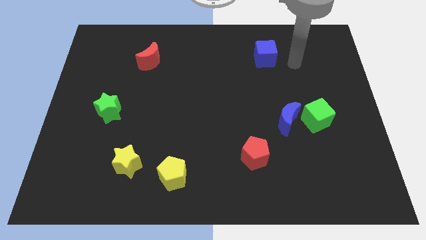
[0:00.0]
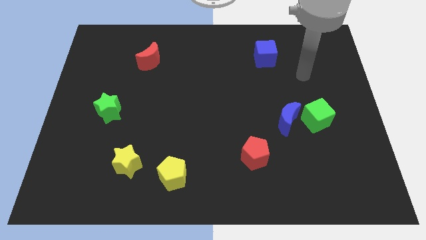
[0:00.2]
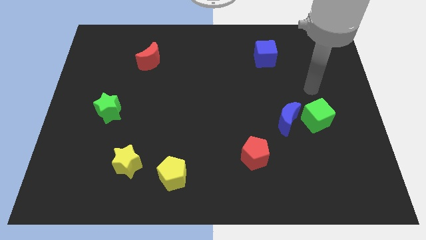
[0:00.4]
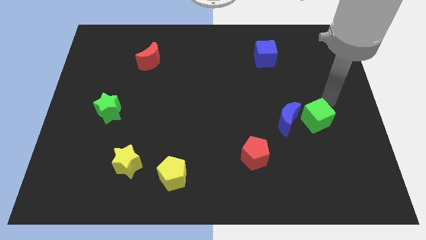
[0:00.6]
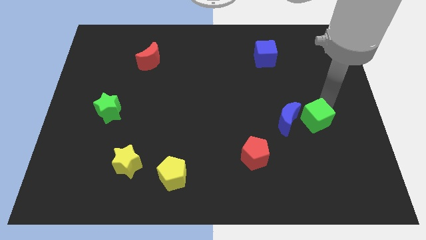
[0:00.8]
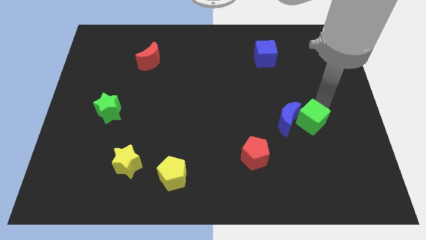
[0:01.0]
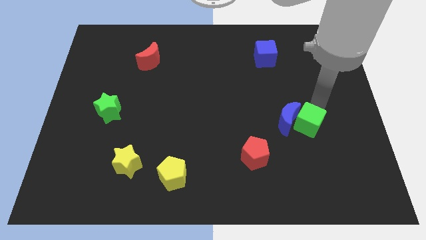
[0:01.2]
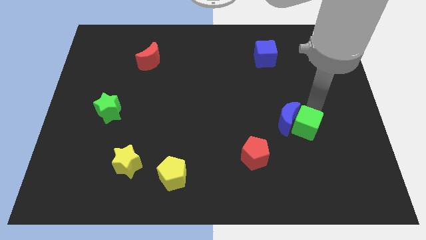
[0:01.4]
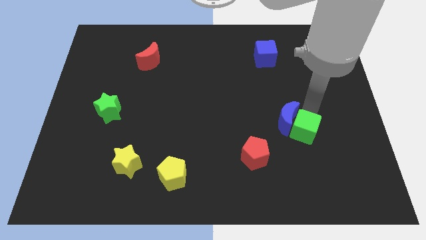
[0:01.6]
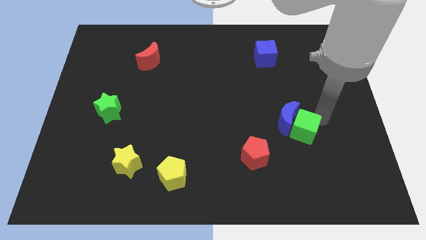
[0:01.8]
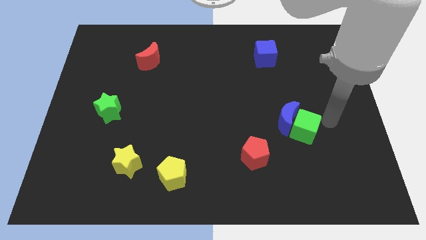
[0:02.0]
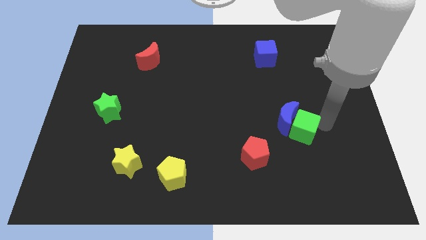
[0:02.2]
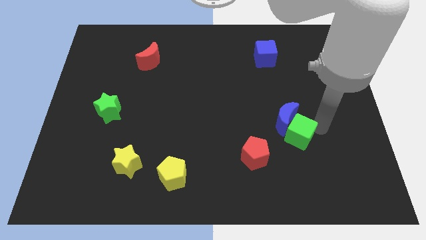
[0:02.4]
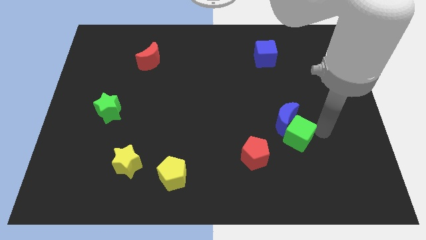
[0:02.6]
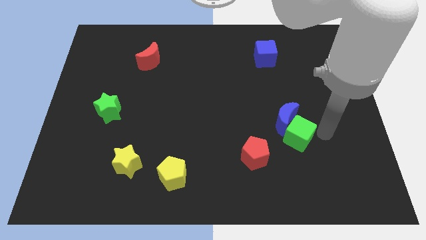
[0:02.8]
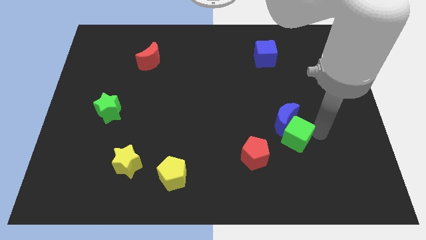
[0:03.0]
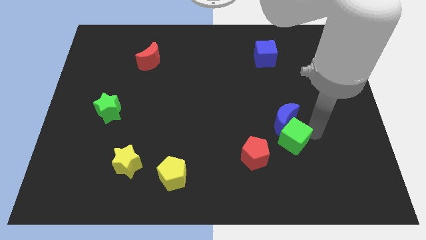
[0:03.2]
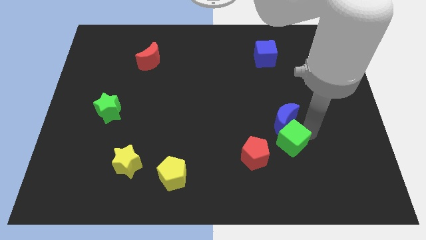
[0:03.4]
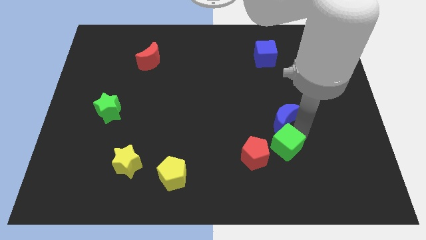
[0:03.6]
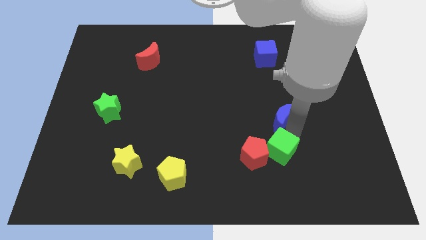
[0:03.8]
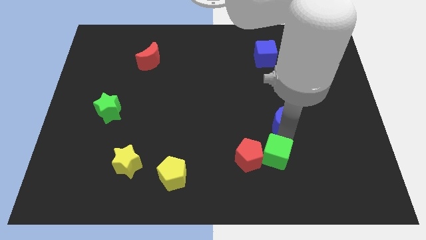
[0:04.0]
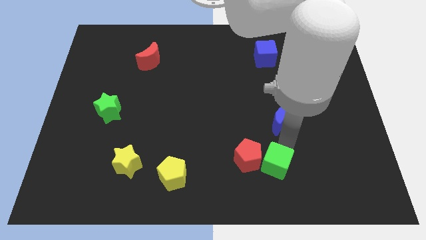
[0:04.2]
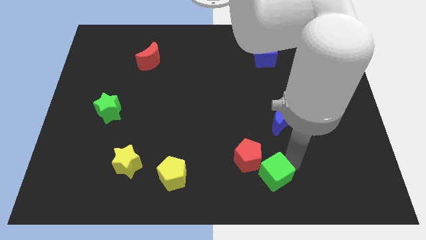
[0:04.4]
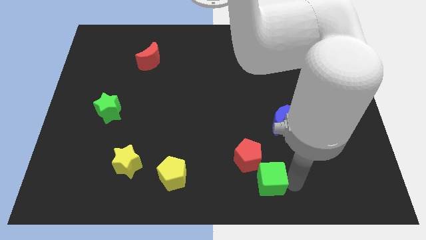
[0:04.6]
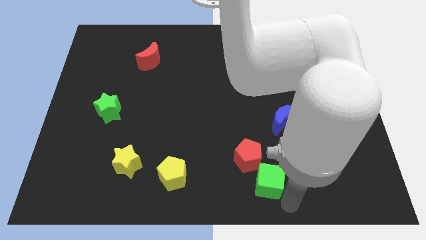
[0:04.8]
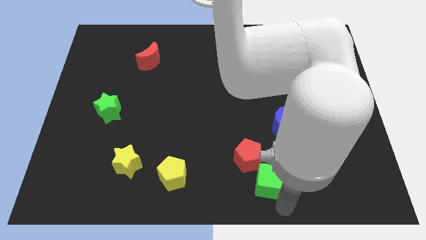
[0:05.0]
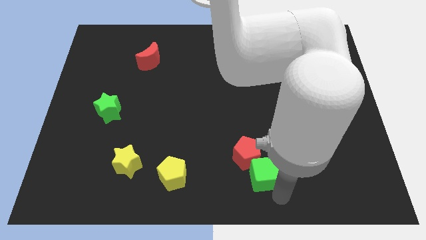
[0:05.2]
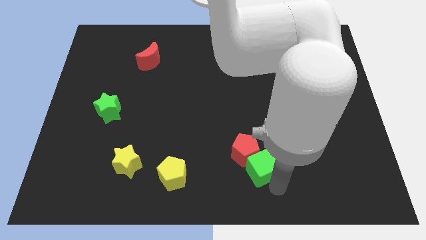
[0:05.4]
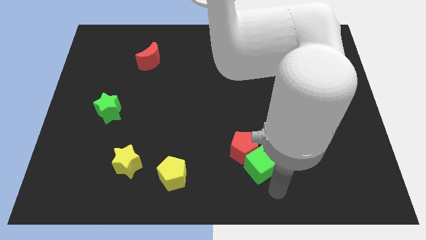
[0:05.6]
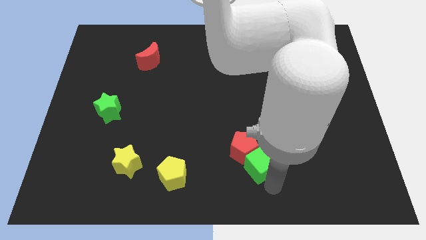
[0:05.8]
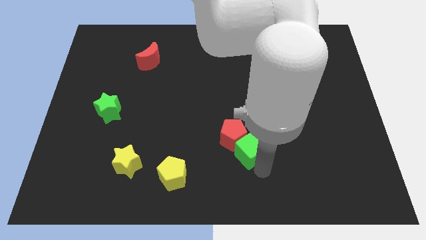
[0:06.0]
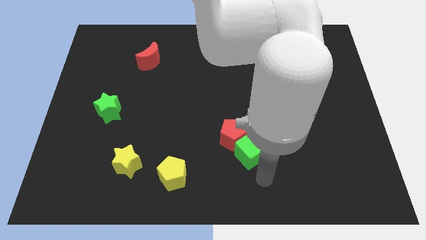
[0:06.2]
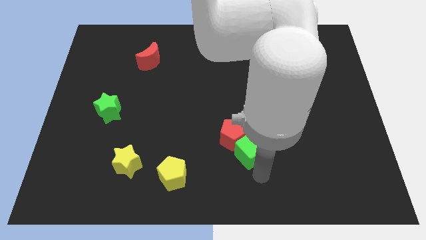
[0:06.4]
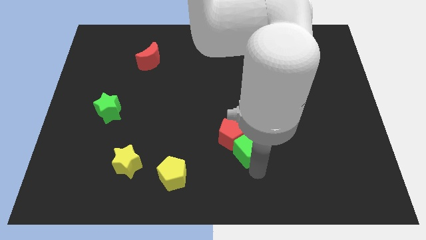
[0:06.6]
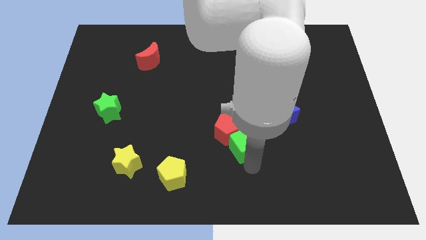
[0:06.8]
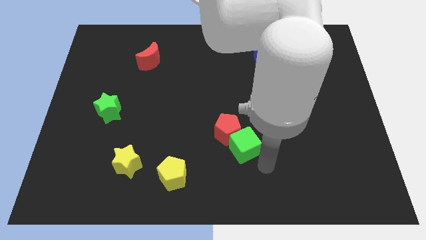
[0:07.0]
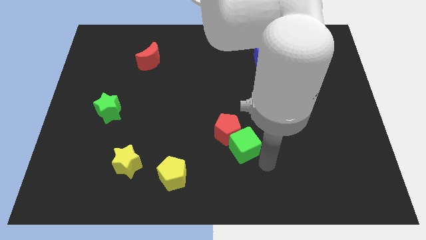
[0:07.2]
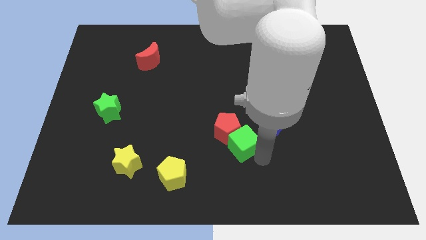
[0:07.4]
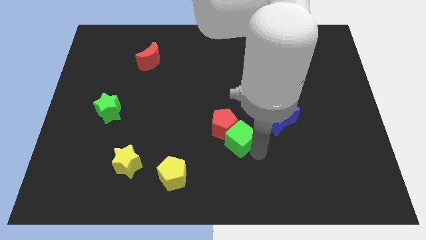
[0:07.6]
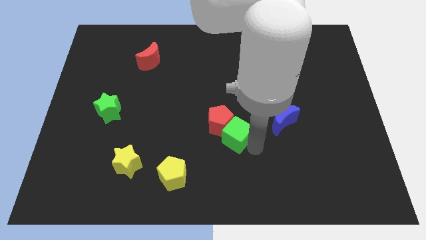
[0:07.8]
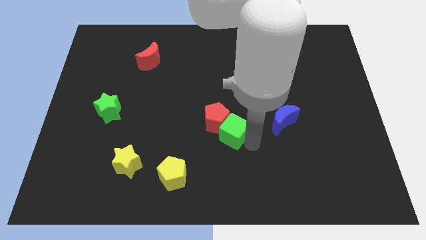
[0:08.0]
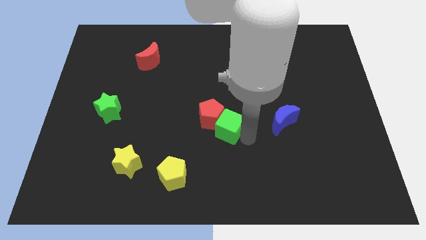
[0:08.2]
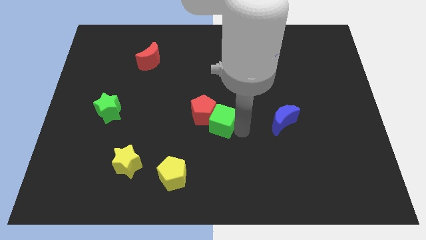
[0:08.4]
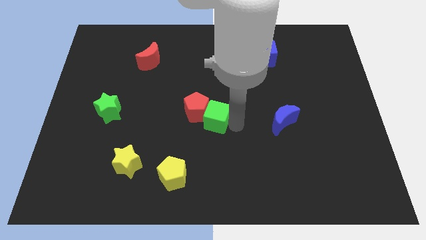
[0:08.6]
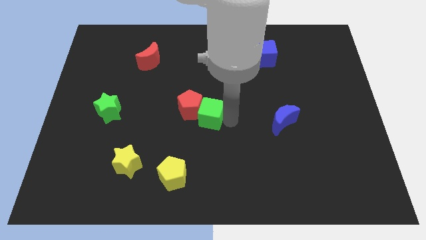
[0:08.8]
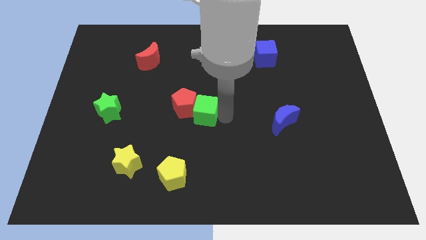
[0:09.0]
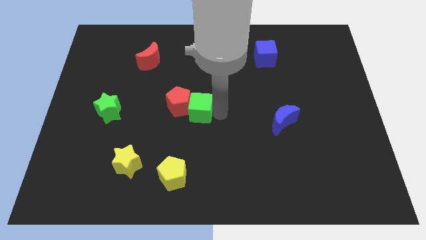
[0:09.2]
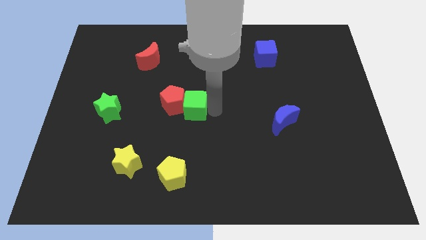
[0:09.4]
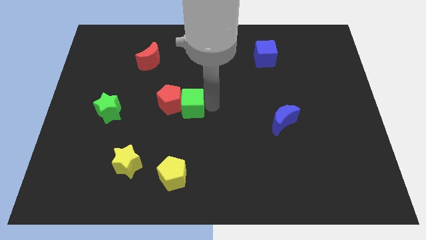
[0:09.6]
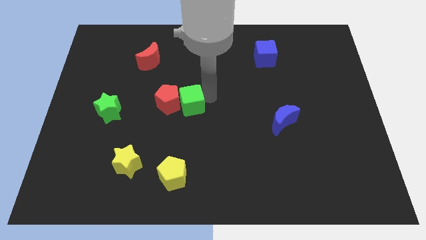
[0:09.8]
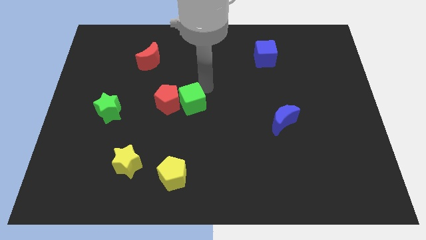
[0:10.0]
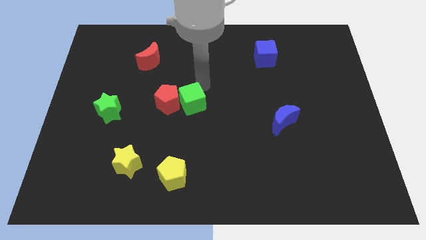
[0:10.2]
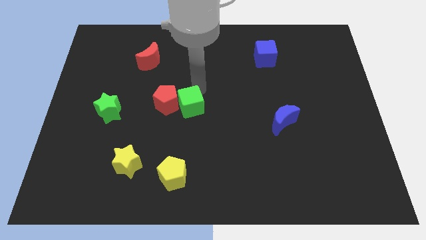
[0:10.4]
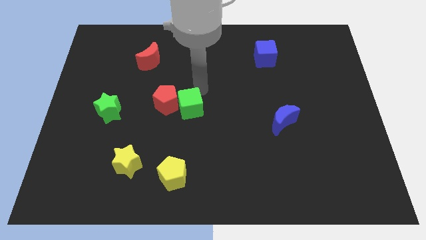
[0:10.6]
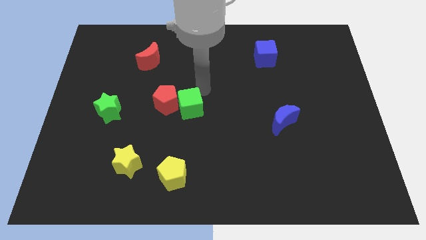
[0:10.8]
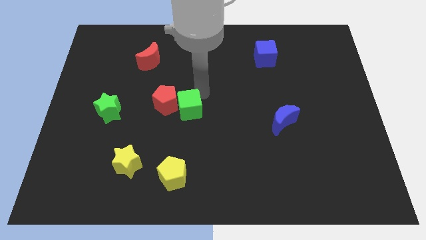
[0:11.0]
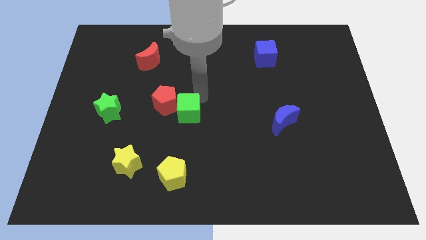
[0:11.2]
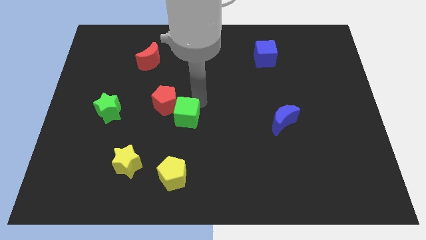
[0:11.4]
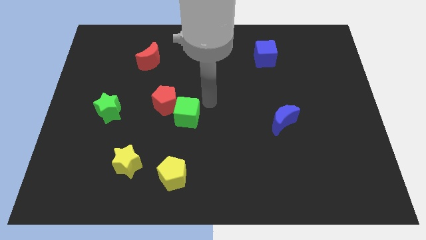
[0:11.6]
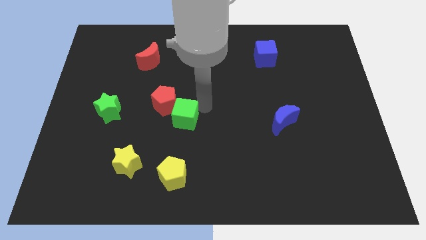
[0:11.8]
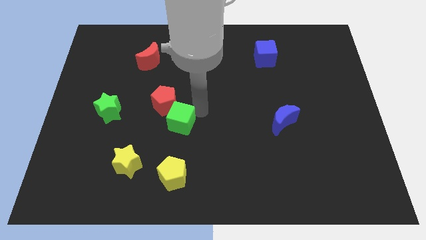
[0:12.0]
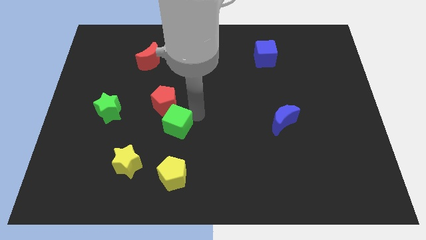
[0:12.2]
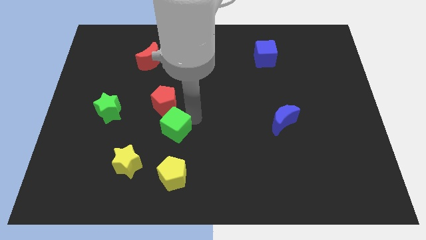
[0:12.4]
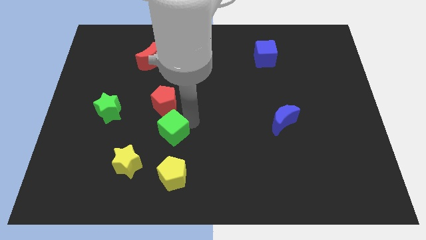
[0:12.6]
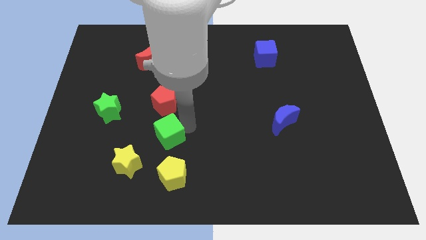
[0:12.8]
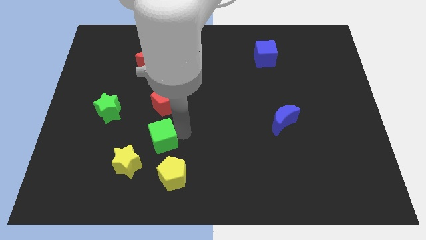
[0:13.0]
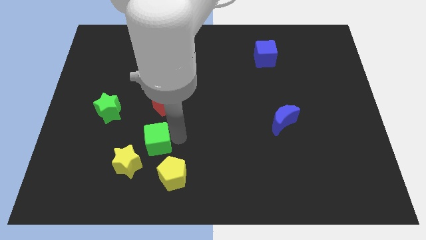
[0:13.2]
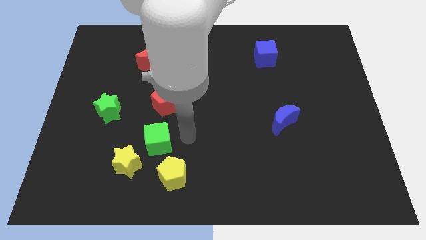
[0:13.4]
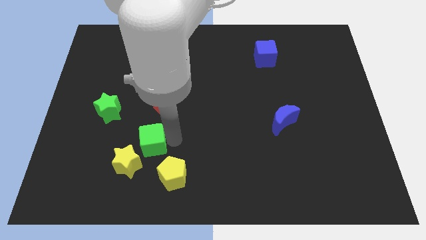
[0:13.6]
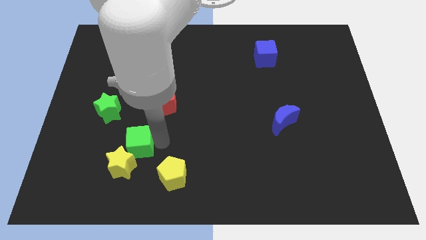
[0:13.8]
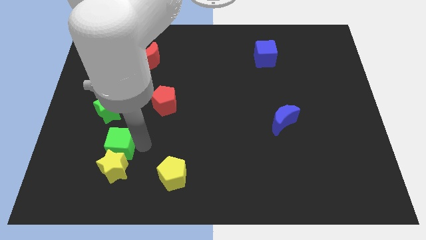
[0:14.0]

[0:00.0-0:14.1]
move the green cube to the bottom of the green star
